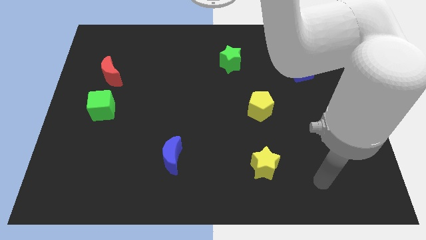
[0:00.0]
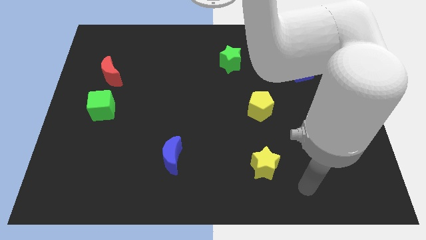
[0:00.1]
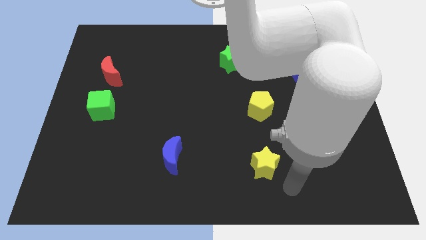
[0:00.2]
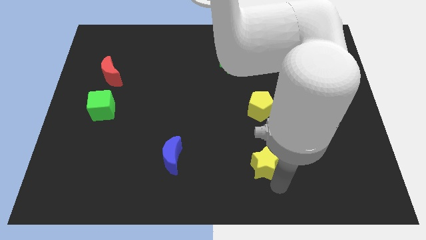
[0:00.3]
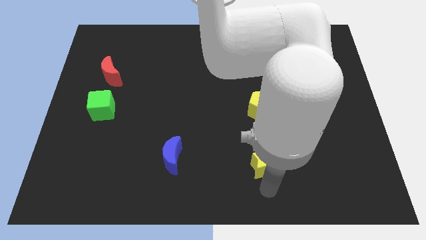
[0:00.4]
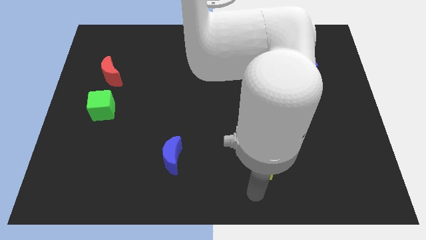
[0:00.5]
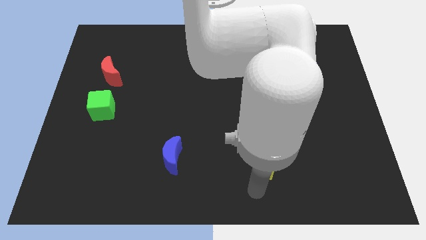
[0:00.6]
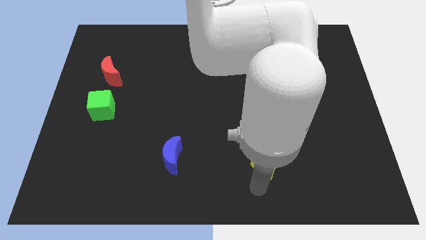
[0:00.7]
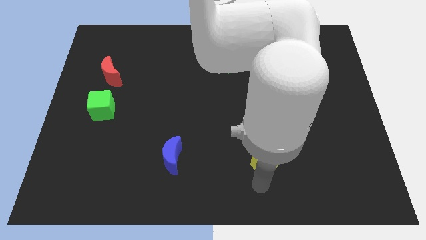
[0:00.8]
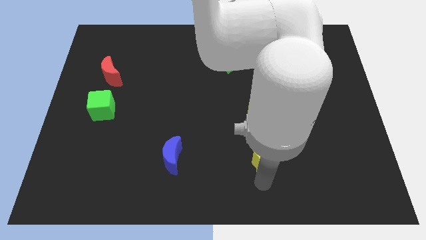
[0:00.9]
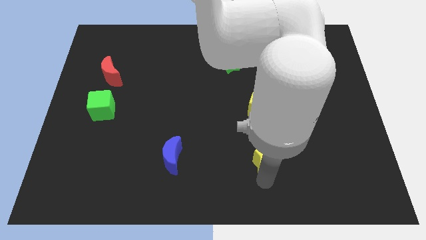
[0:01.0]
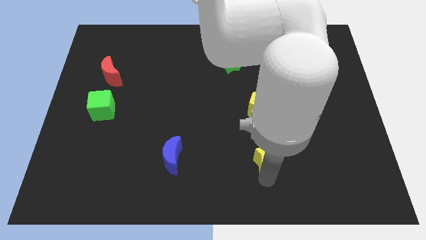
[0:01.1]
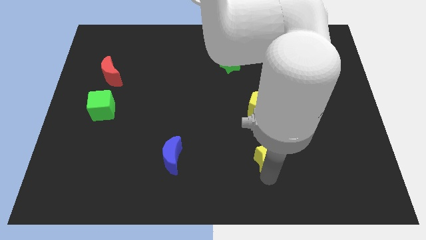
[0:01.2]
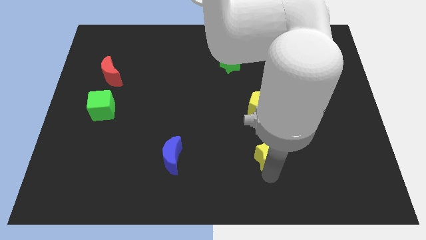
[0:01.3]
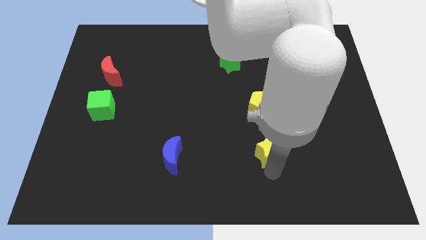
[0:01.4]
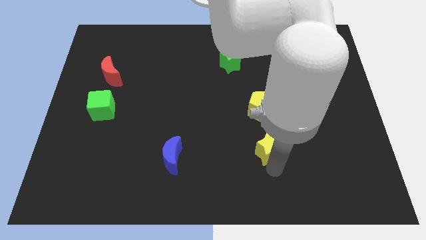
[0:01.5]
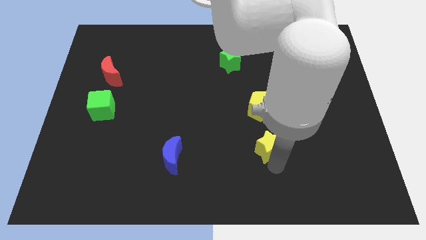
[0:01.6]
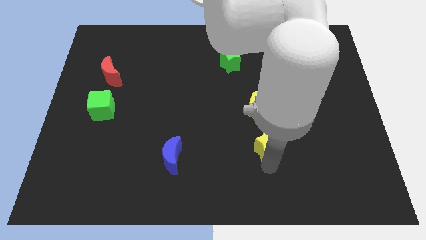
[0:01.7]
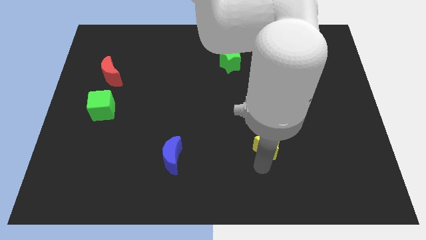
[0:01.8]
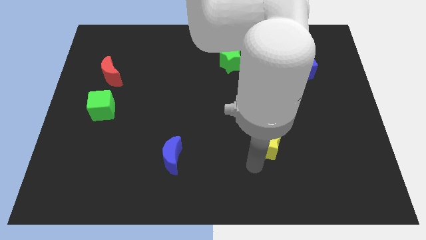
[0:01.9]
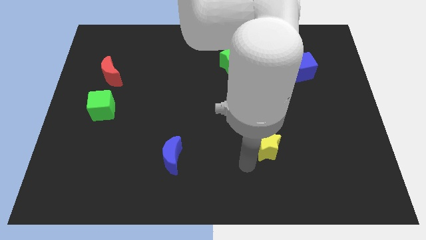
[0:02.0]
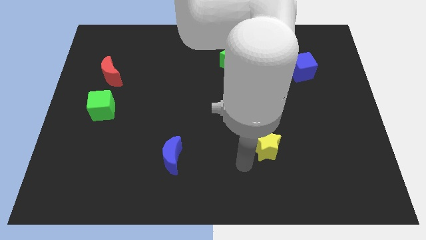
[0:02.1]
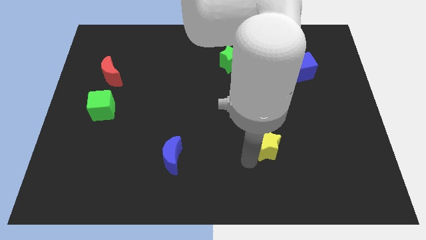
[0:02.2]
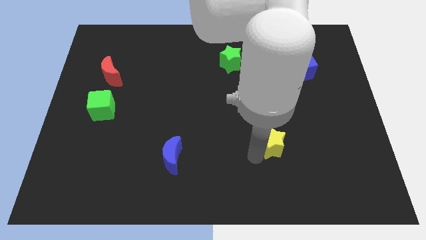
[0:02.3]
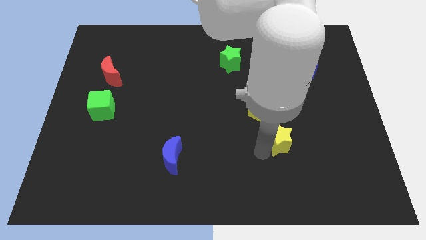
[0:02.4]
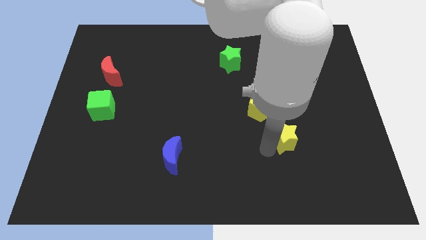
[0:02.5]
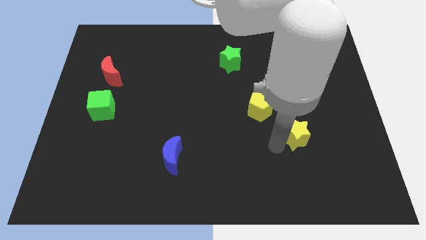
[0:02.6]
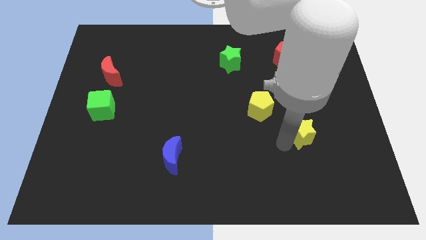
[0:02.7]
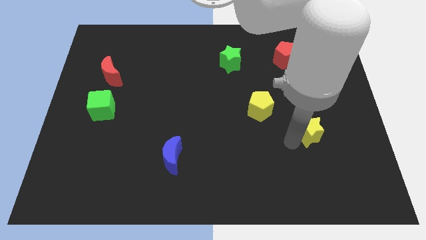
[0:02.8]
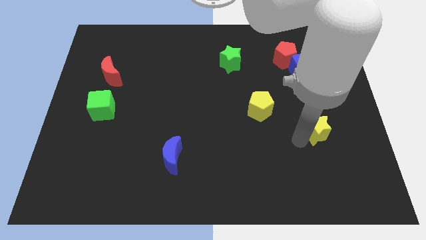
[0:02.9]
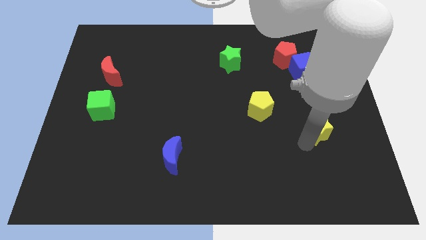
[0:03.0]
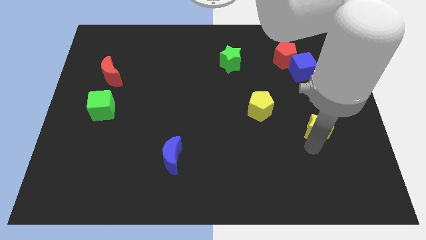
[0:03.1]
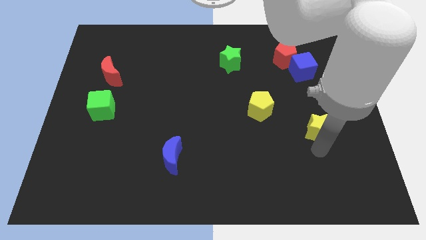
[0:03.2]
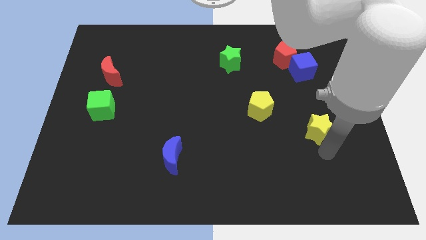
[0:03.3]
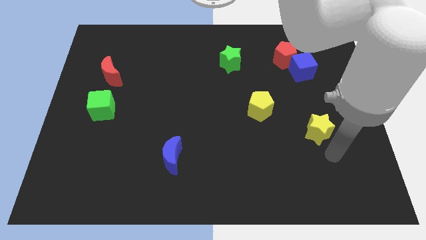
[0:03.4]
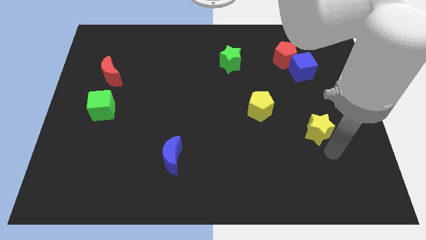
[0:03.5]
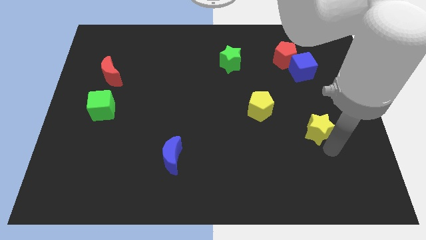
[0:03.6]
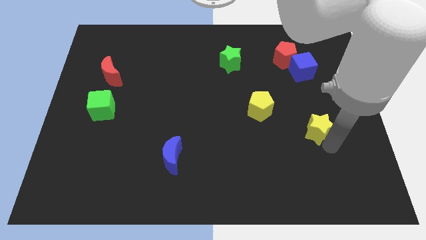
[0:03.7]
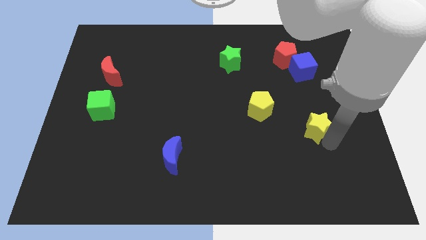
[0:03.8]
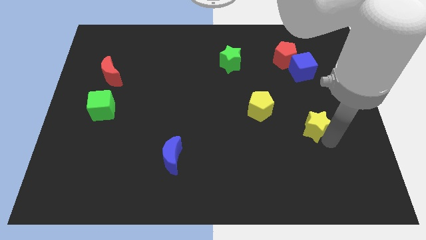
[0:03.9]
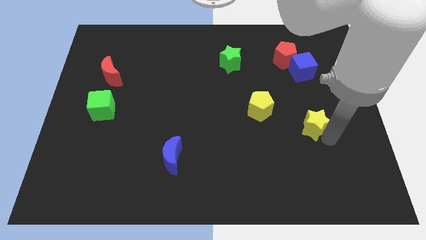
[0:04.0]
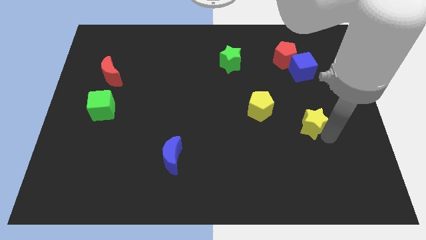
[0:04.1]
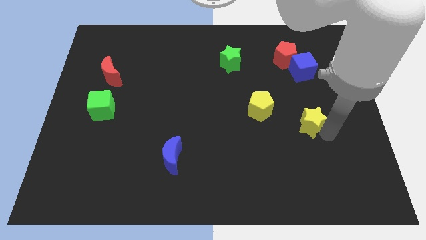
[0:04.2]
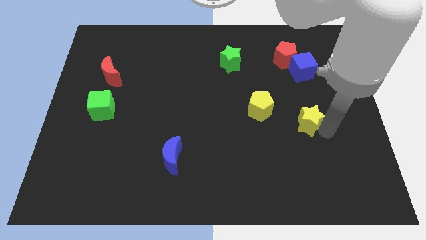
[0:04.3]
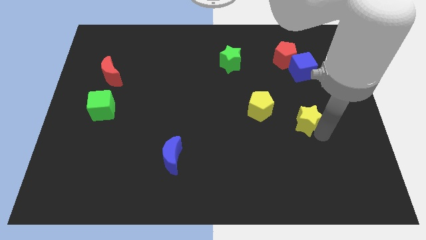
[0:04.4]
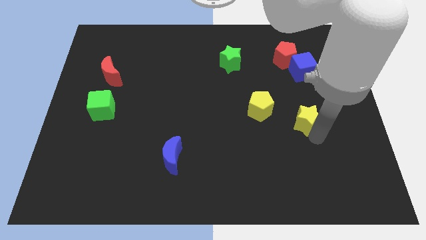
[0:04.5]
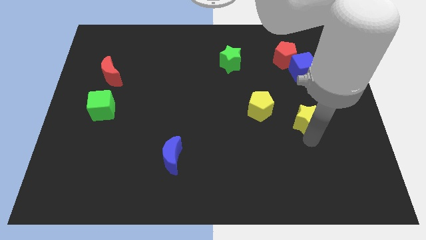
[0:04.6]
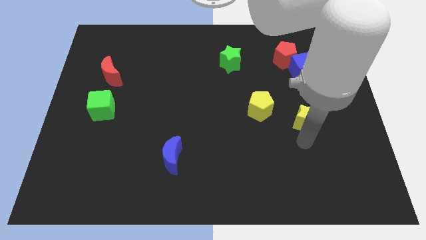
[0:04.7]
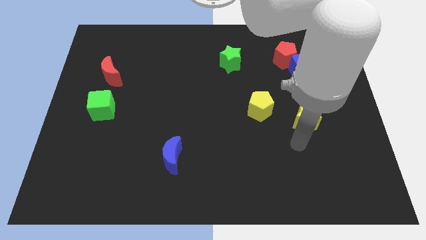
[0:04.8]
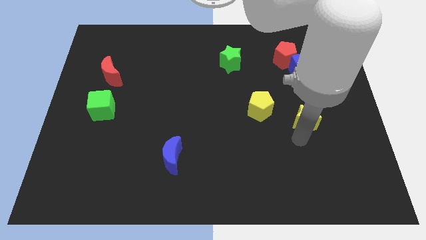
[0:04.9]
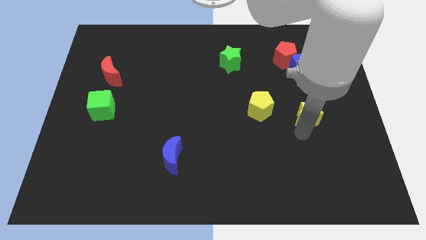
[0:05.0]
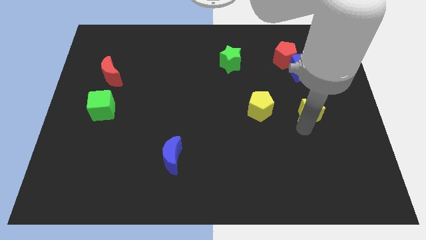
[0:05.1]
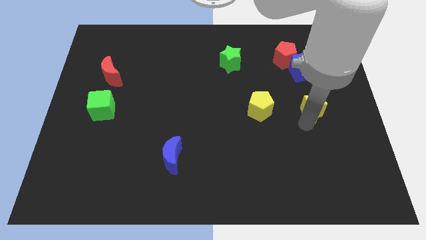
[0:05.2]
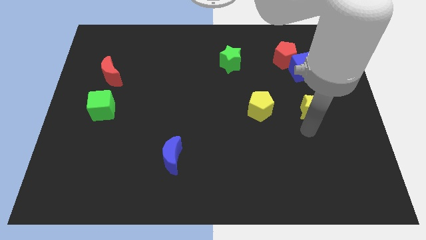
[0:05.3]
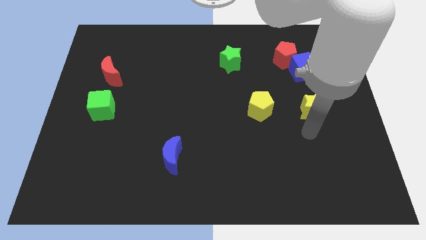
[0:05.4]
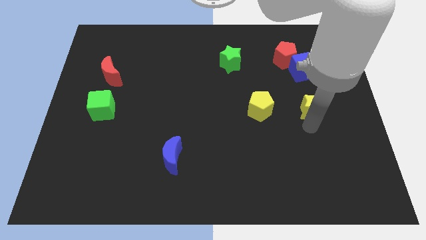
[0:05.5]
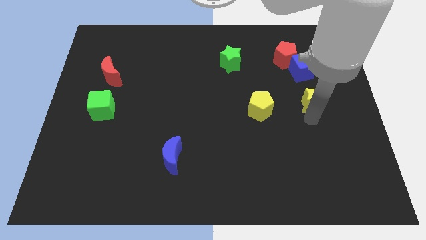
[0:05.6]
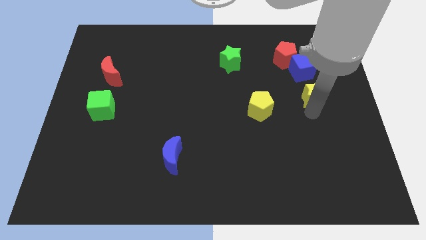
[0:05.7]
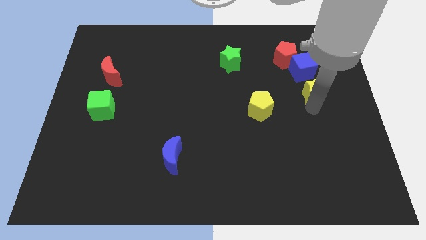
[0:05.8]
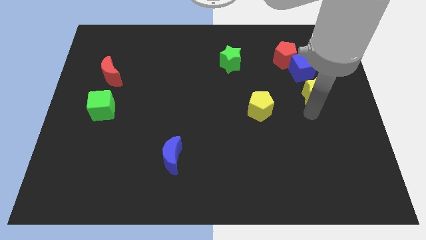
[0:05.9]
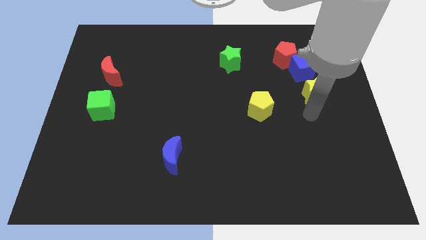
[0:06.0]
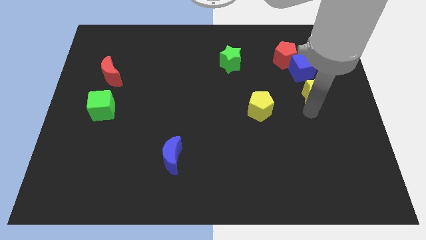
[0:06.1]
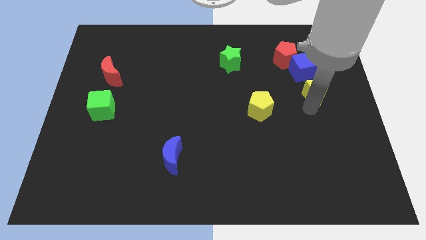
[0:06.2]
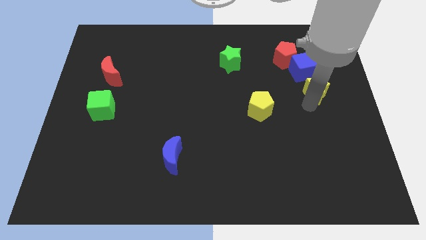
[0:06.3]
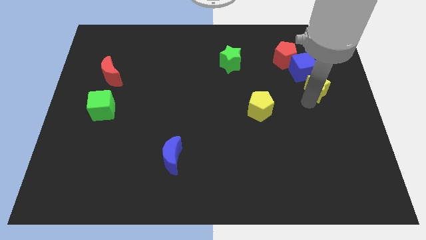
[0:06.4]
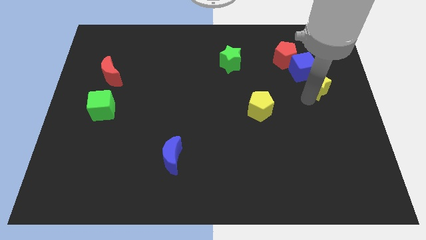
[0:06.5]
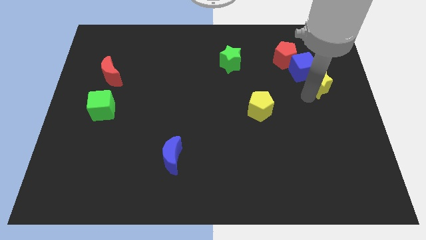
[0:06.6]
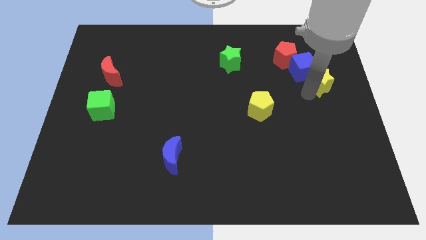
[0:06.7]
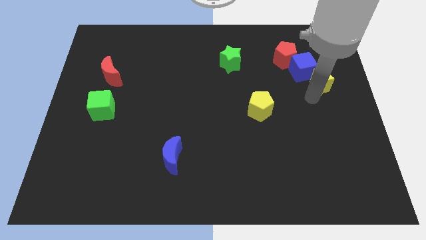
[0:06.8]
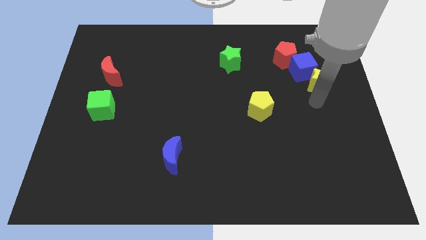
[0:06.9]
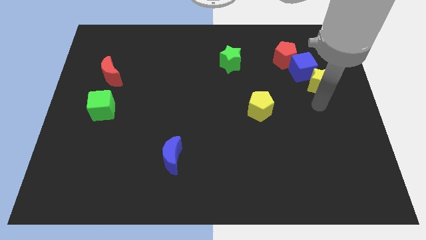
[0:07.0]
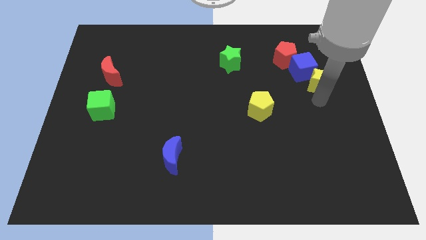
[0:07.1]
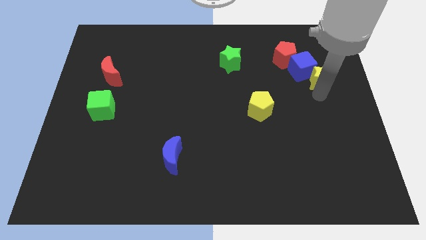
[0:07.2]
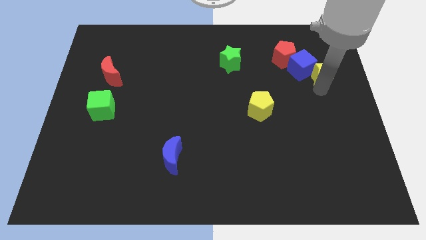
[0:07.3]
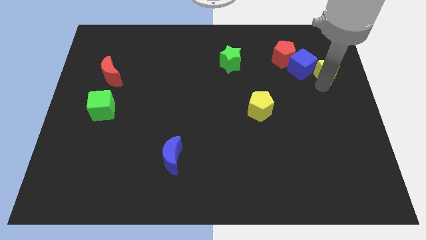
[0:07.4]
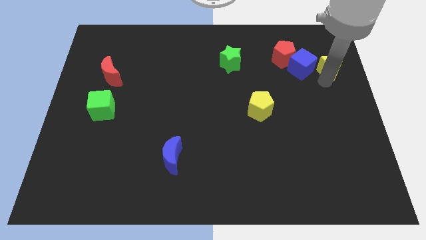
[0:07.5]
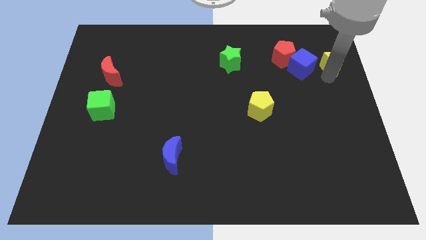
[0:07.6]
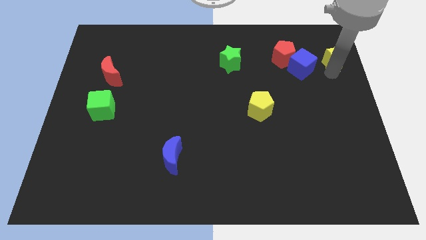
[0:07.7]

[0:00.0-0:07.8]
push the yellow star to the top right side of the blue cube
